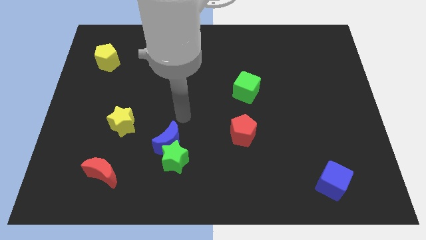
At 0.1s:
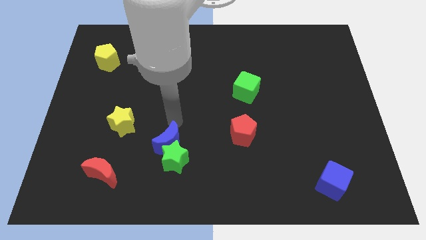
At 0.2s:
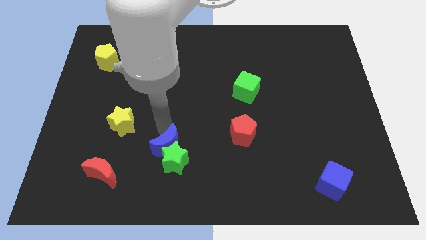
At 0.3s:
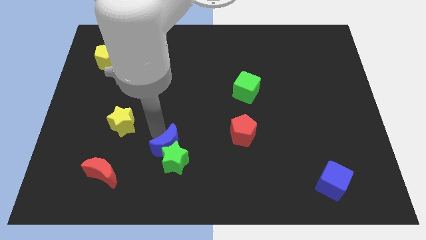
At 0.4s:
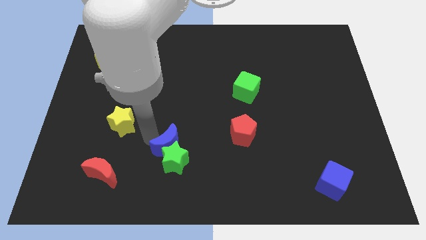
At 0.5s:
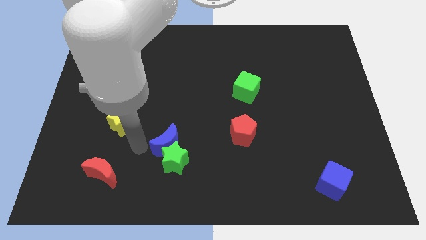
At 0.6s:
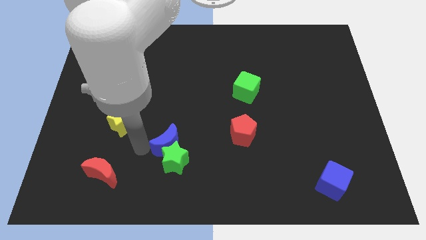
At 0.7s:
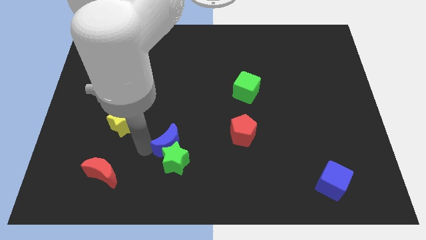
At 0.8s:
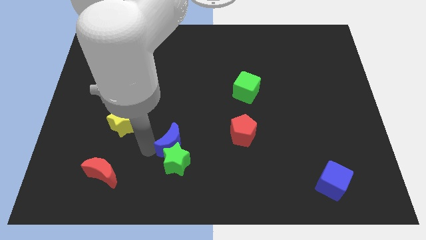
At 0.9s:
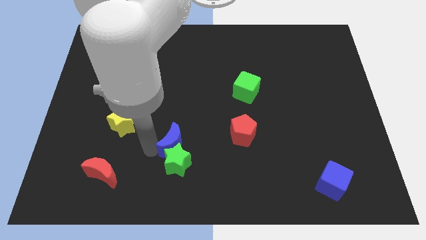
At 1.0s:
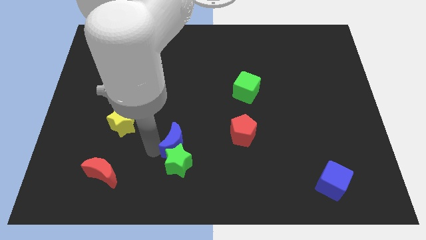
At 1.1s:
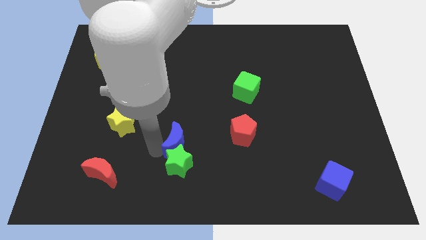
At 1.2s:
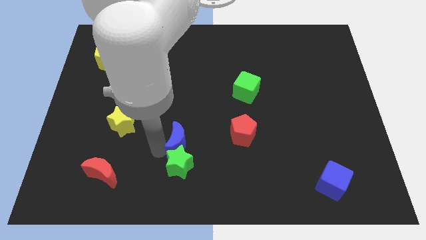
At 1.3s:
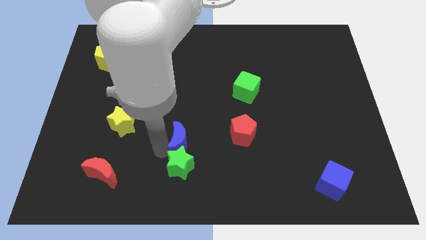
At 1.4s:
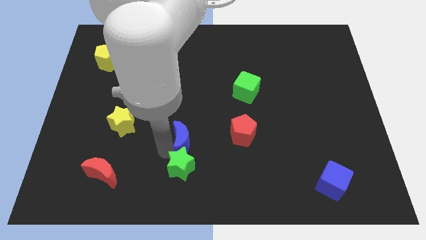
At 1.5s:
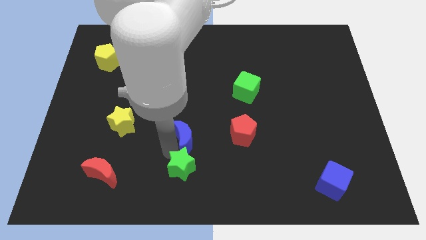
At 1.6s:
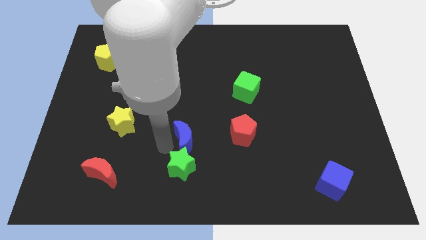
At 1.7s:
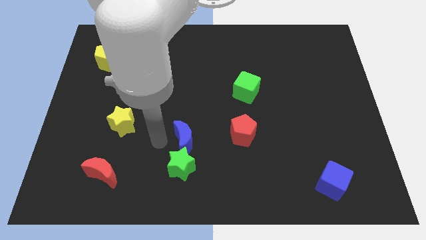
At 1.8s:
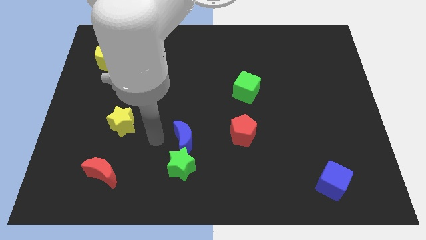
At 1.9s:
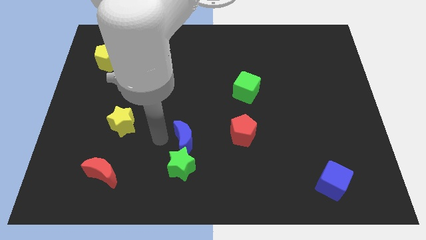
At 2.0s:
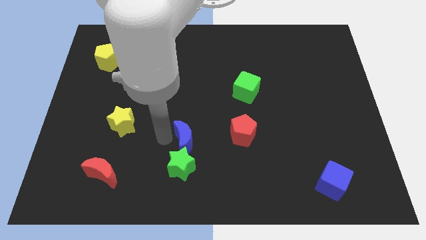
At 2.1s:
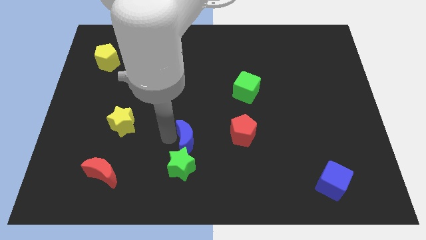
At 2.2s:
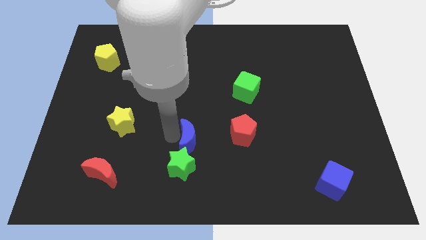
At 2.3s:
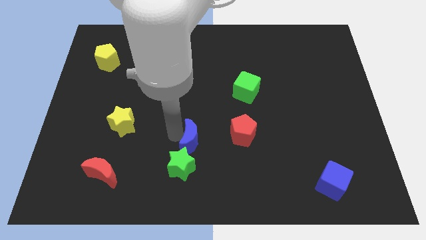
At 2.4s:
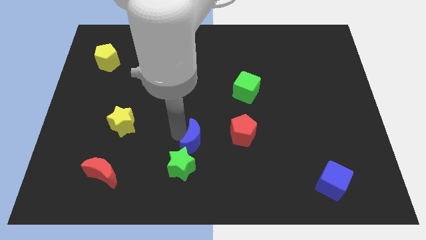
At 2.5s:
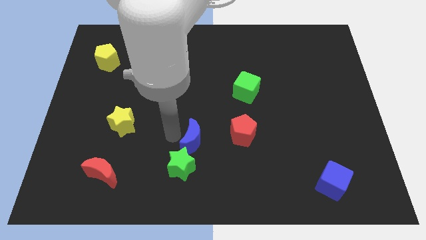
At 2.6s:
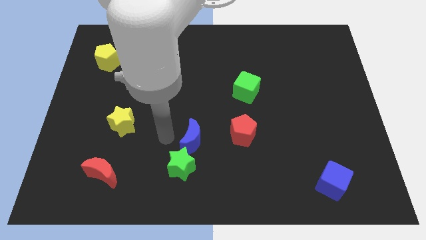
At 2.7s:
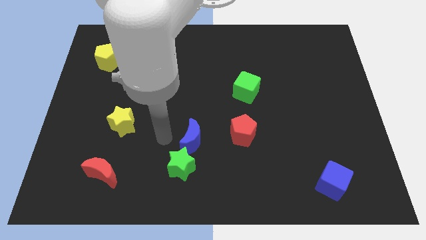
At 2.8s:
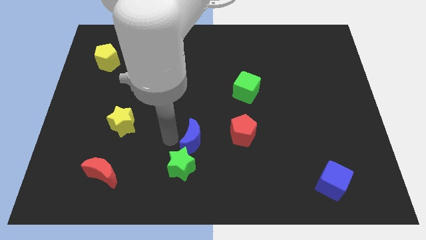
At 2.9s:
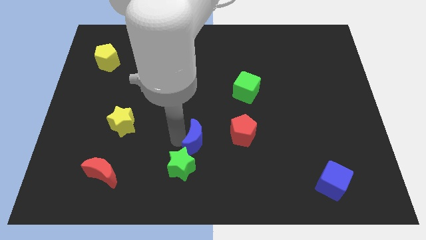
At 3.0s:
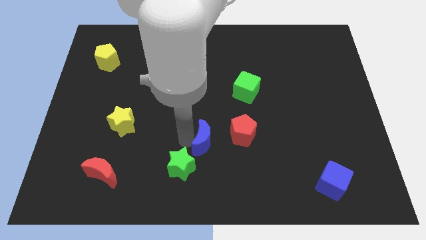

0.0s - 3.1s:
push the blue moon right a bit

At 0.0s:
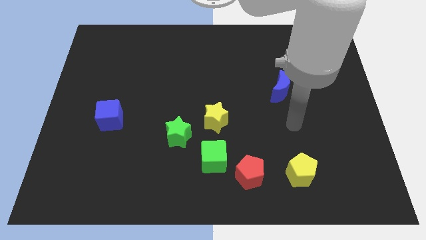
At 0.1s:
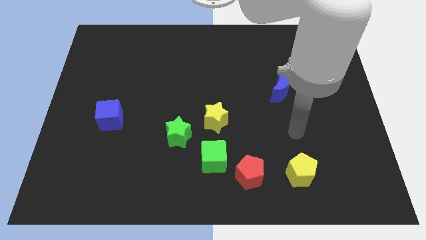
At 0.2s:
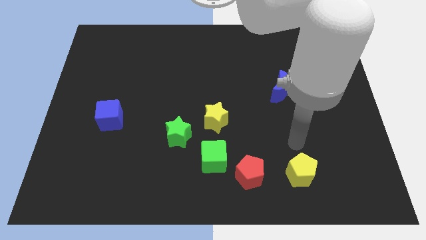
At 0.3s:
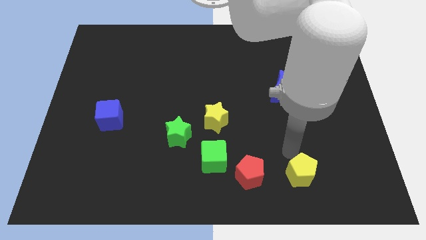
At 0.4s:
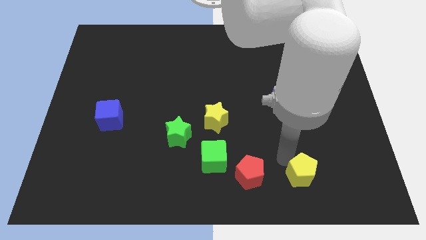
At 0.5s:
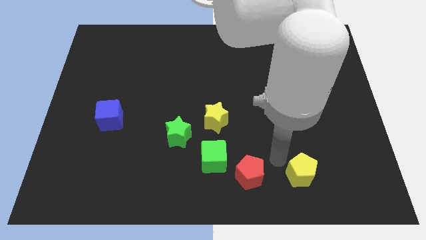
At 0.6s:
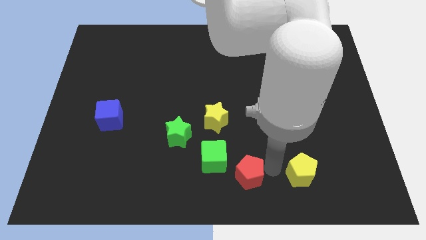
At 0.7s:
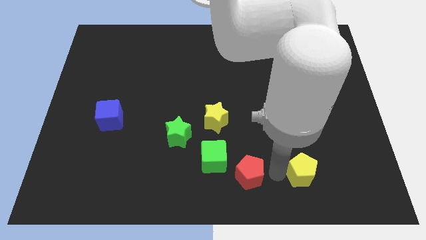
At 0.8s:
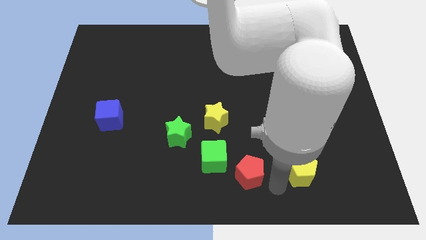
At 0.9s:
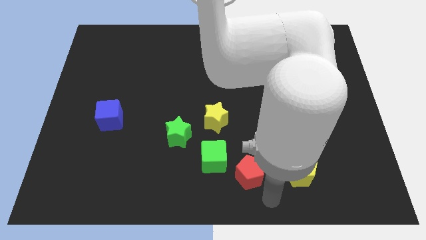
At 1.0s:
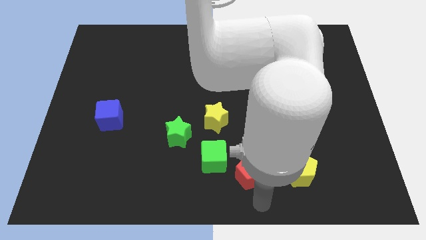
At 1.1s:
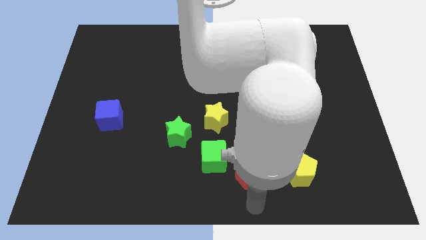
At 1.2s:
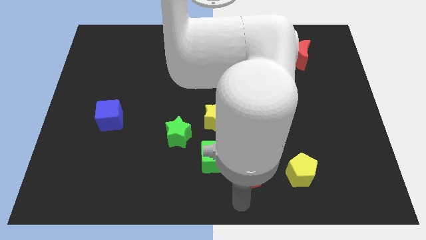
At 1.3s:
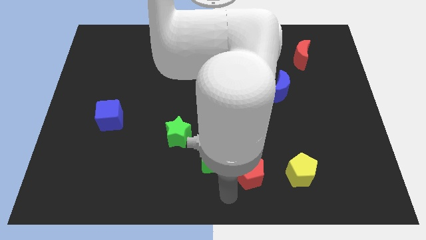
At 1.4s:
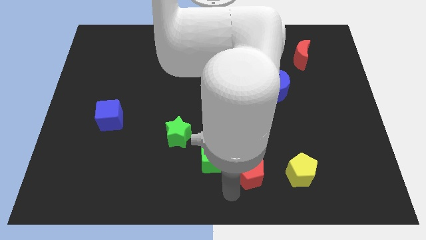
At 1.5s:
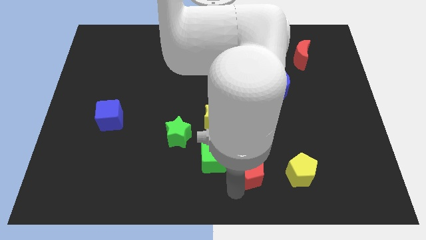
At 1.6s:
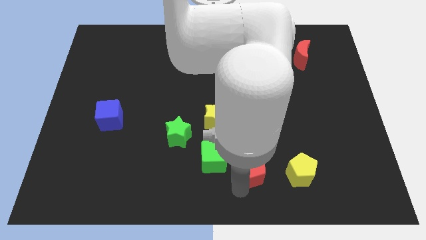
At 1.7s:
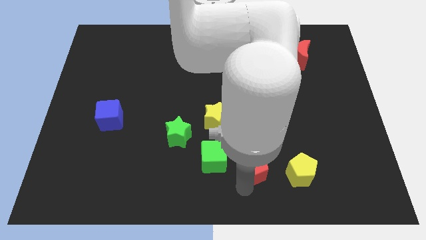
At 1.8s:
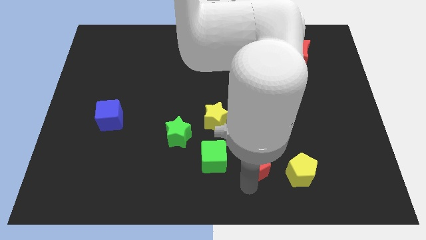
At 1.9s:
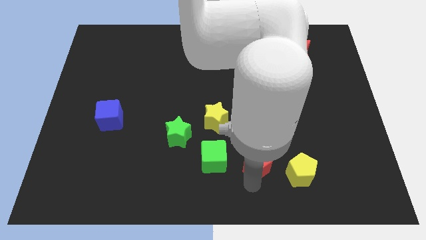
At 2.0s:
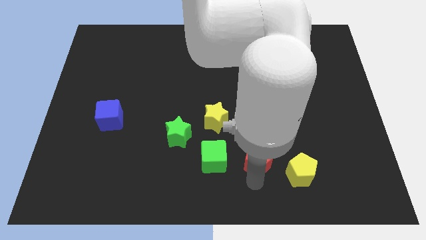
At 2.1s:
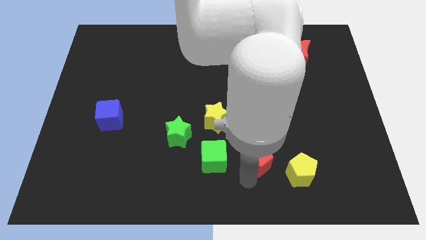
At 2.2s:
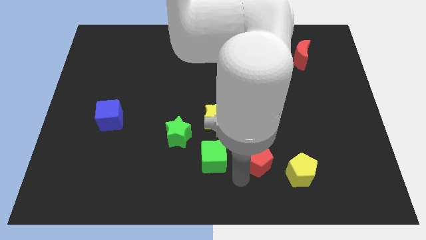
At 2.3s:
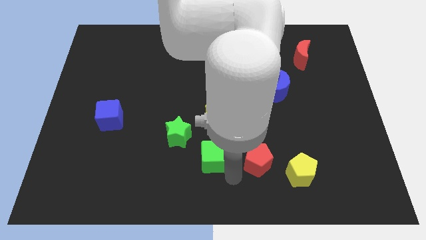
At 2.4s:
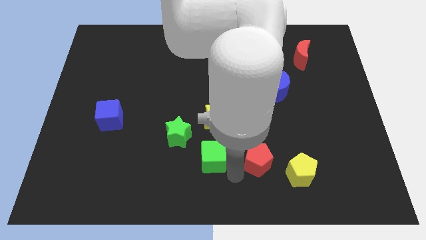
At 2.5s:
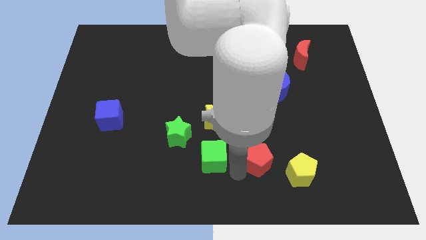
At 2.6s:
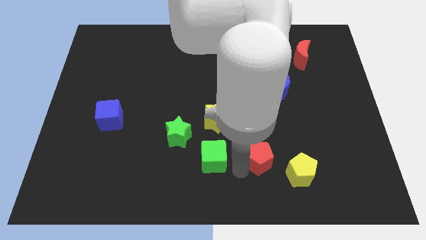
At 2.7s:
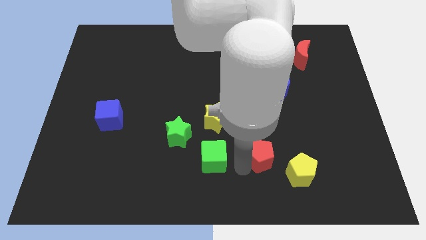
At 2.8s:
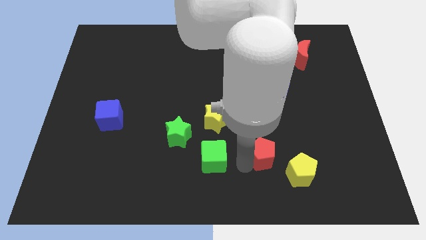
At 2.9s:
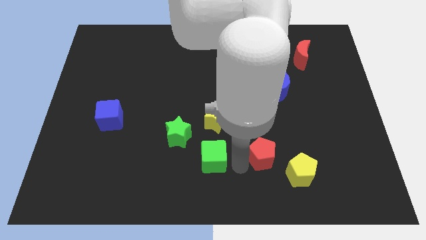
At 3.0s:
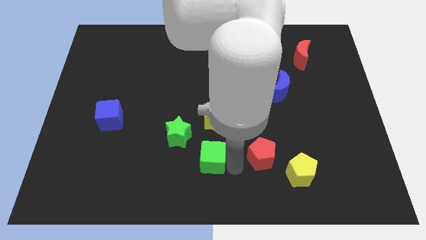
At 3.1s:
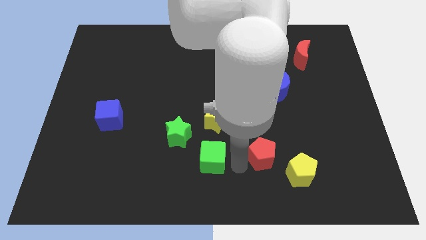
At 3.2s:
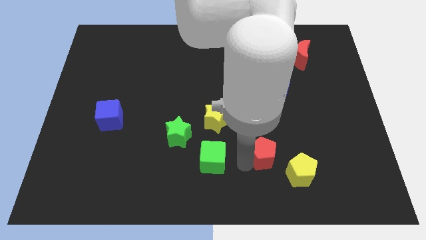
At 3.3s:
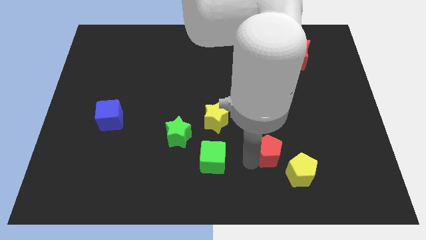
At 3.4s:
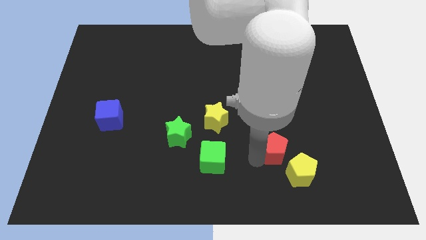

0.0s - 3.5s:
slightly move the red pentagon up and then to the right

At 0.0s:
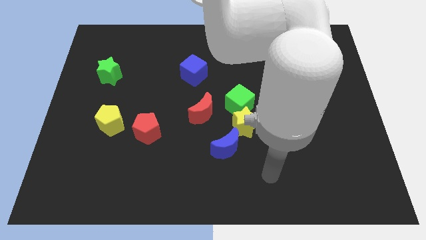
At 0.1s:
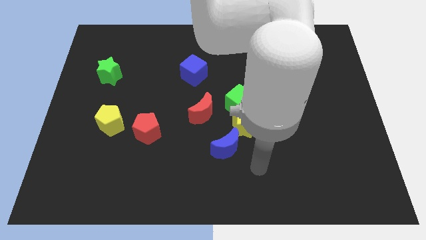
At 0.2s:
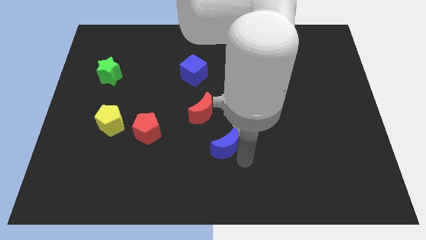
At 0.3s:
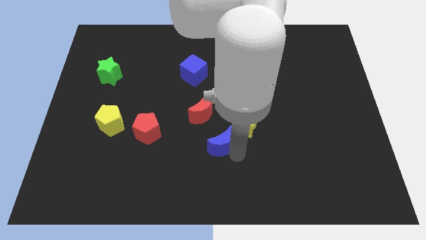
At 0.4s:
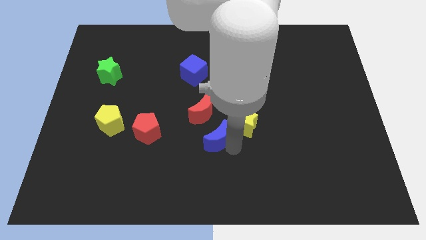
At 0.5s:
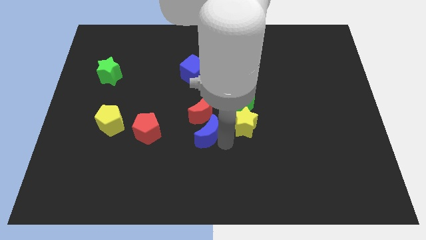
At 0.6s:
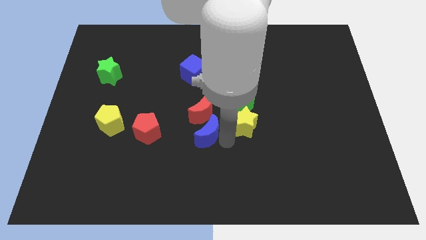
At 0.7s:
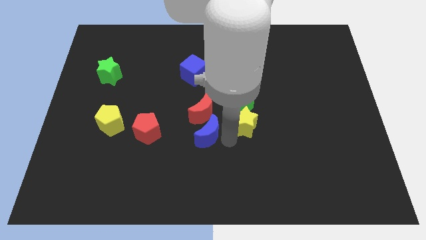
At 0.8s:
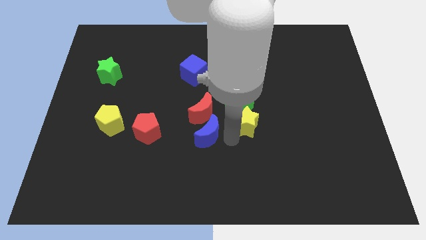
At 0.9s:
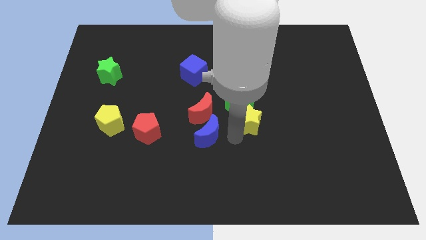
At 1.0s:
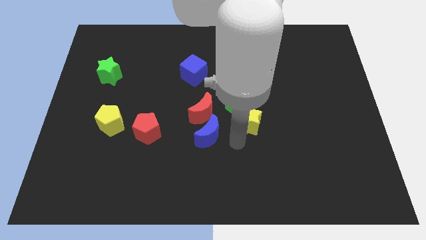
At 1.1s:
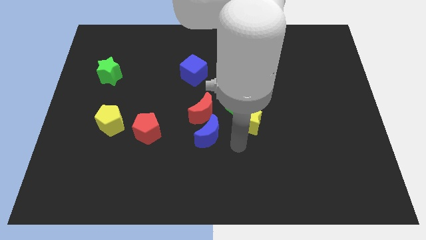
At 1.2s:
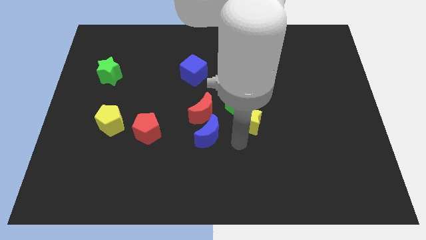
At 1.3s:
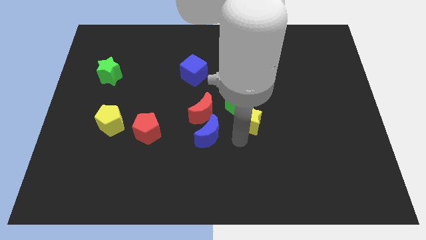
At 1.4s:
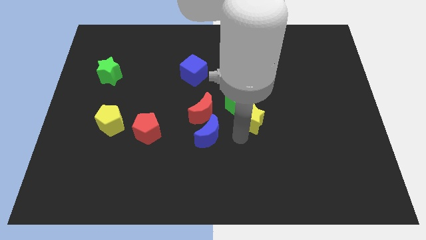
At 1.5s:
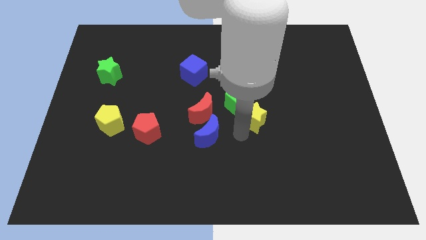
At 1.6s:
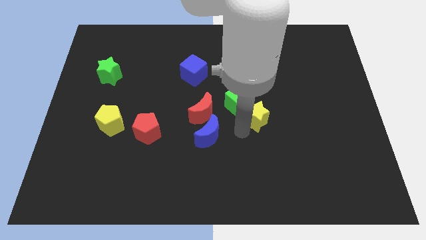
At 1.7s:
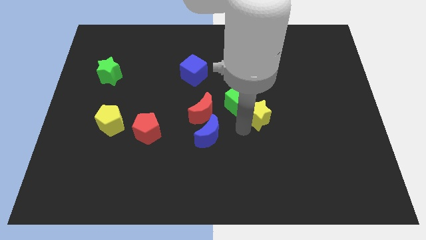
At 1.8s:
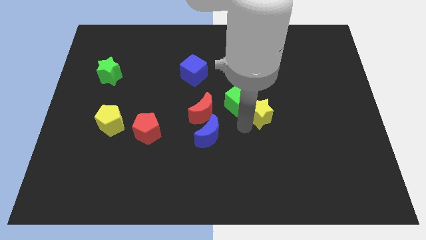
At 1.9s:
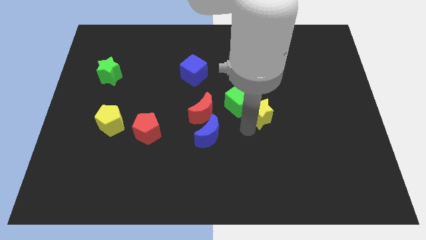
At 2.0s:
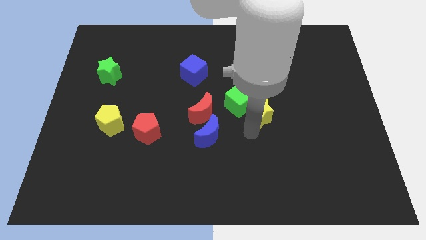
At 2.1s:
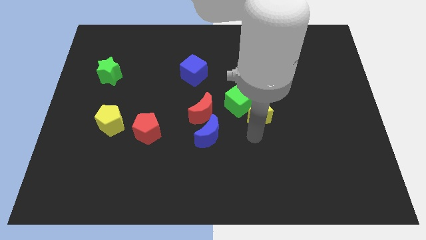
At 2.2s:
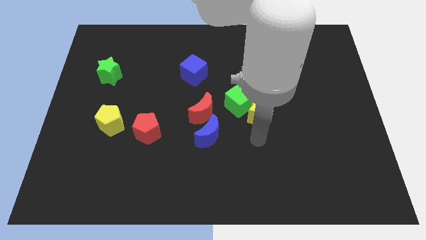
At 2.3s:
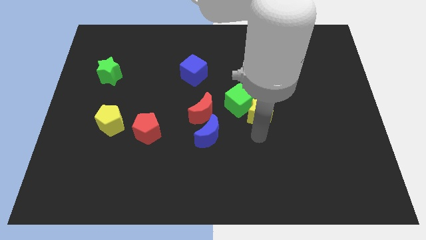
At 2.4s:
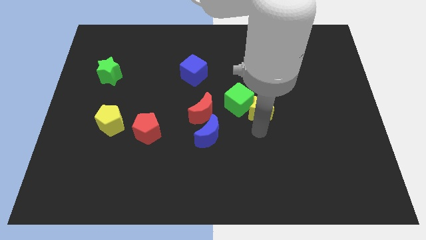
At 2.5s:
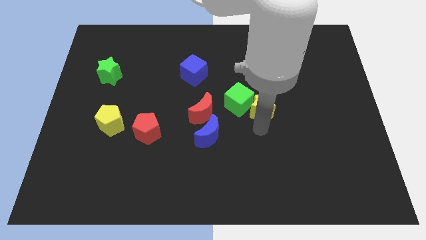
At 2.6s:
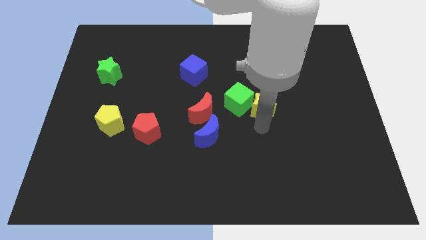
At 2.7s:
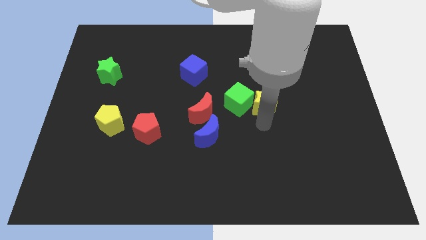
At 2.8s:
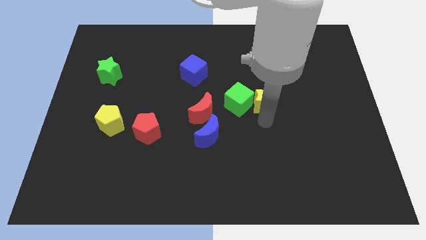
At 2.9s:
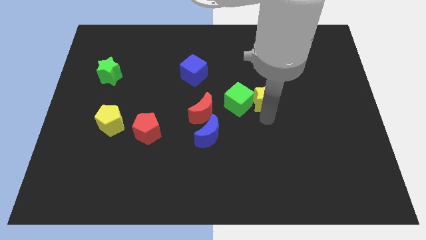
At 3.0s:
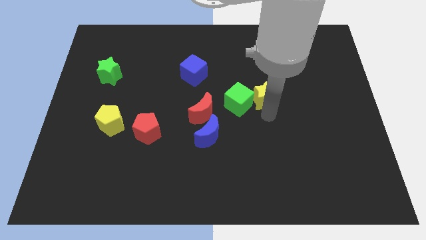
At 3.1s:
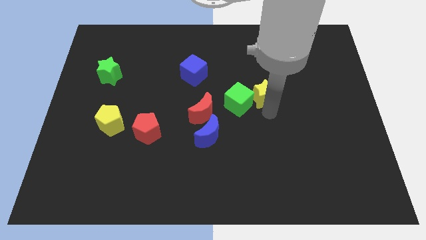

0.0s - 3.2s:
move the yellow star somewhat up
